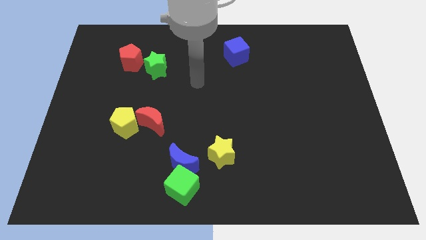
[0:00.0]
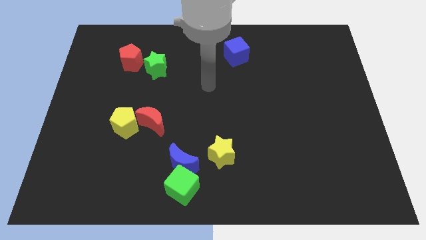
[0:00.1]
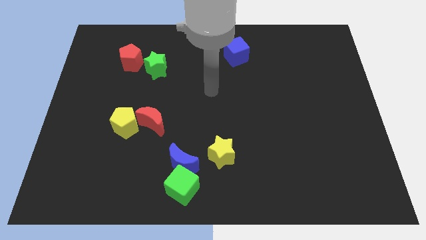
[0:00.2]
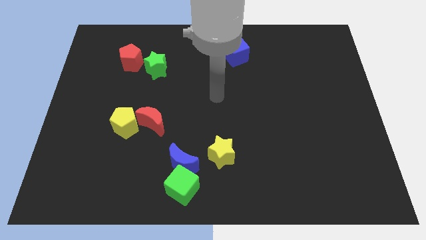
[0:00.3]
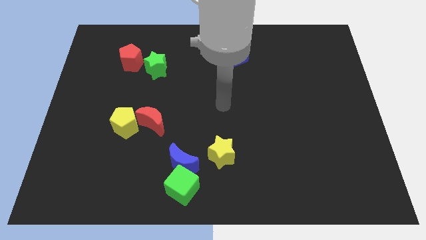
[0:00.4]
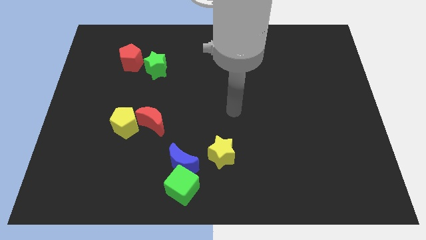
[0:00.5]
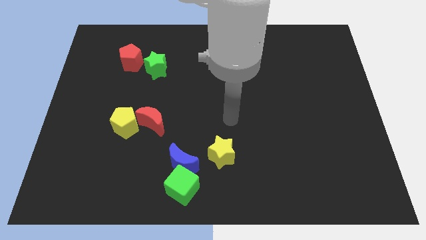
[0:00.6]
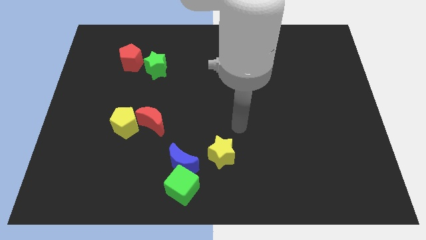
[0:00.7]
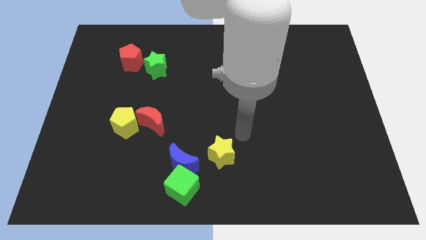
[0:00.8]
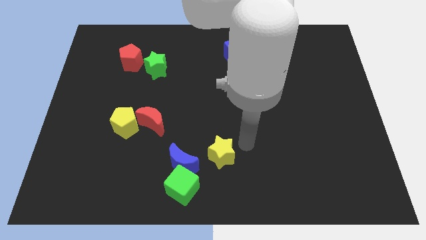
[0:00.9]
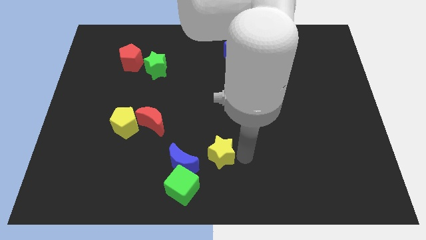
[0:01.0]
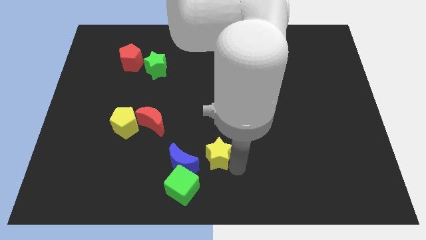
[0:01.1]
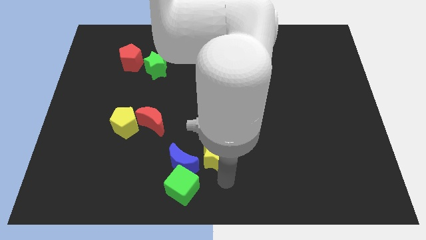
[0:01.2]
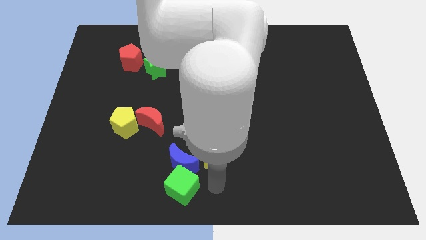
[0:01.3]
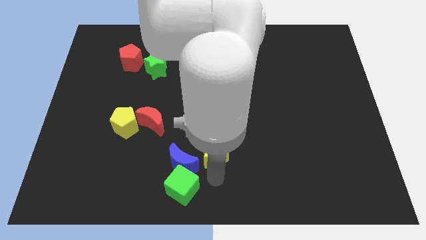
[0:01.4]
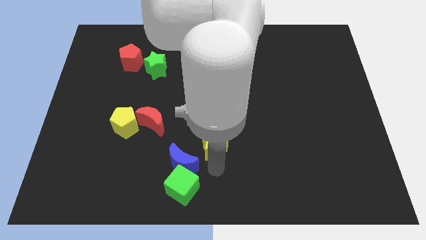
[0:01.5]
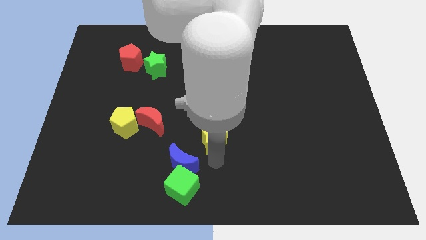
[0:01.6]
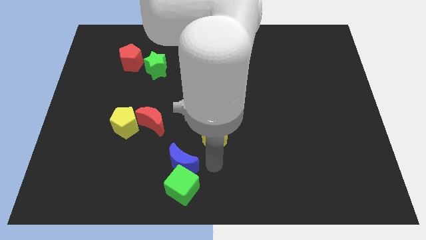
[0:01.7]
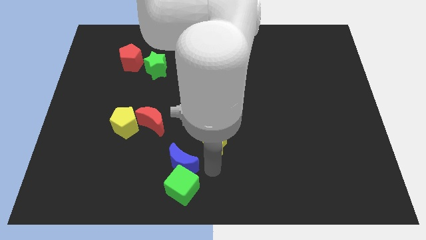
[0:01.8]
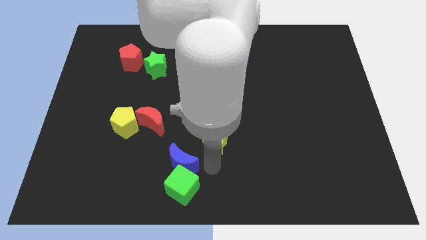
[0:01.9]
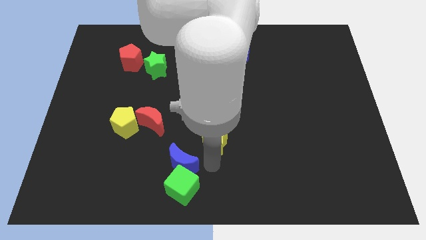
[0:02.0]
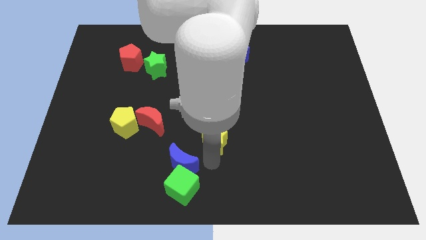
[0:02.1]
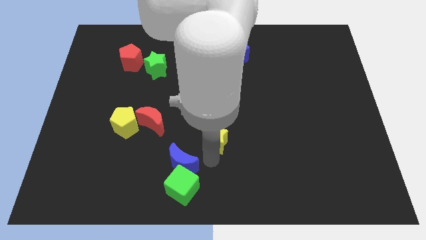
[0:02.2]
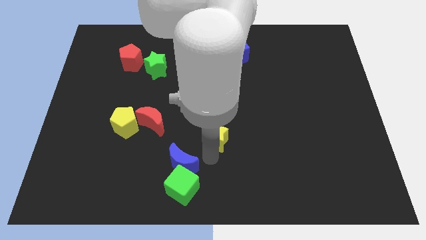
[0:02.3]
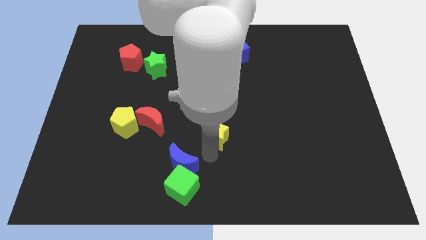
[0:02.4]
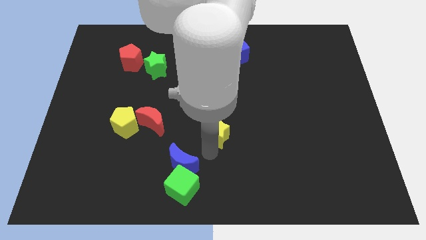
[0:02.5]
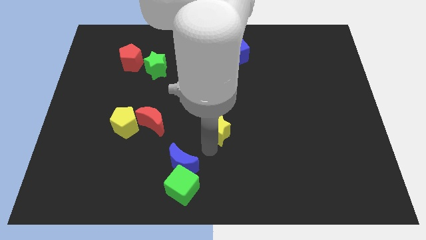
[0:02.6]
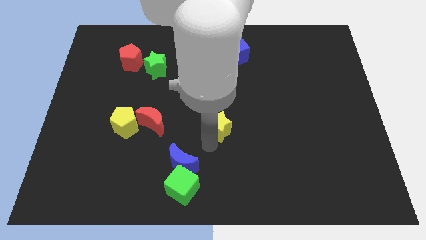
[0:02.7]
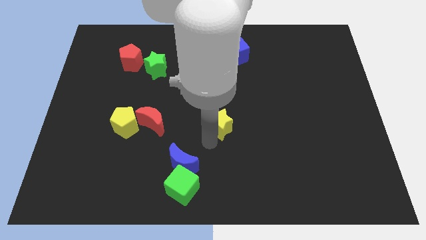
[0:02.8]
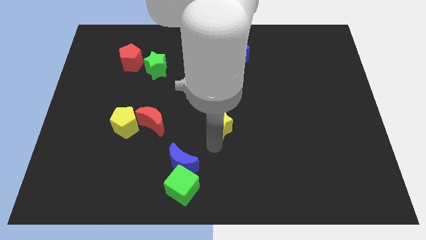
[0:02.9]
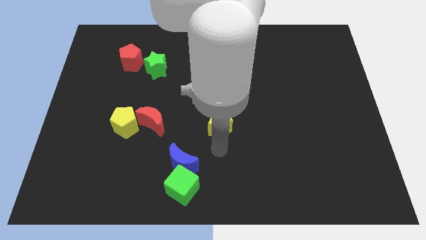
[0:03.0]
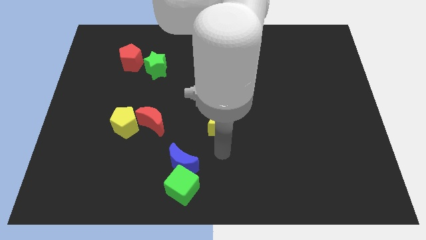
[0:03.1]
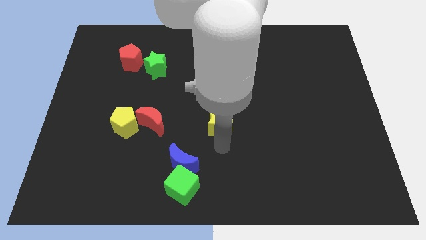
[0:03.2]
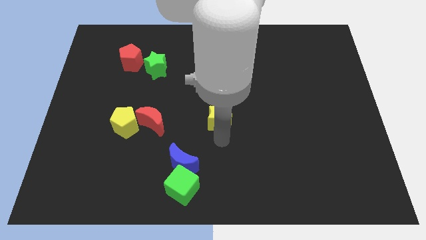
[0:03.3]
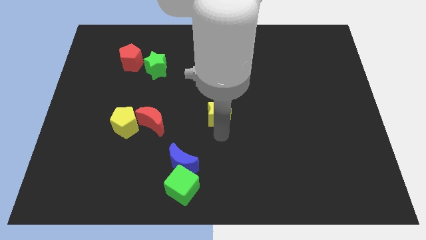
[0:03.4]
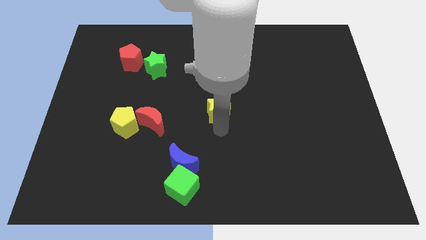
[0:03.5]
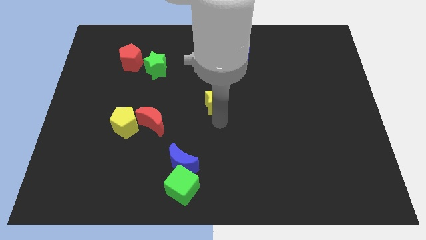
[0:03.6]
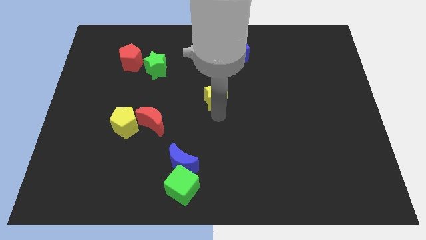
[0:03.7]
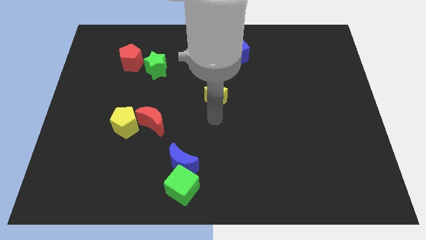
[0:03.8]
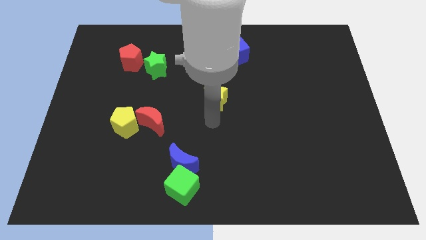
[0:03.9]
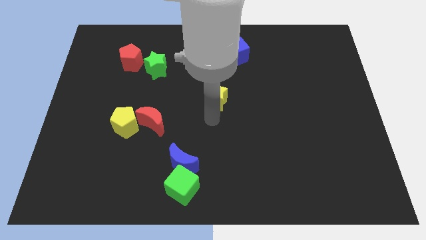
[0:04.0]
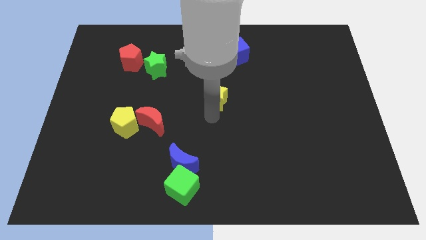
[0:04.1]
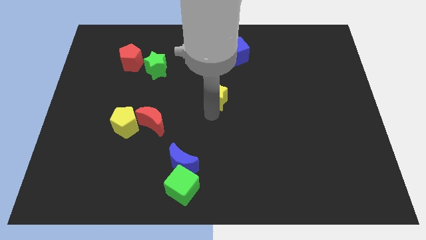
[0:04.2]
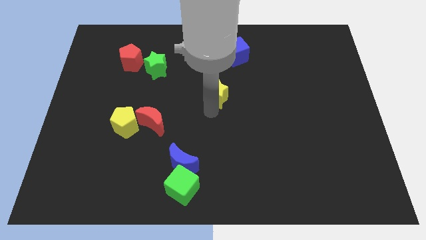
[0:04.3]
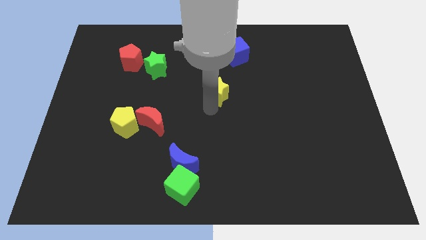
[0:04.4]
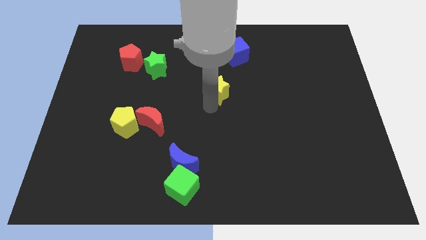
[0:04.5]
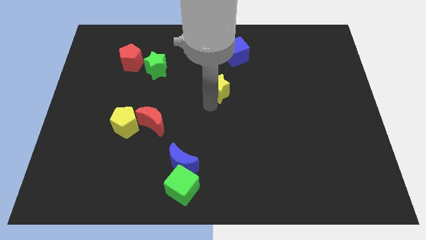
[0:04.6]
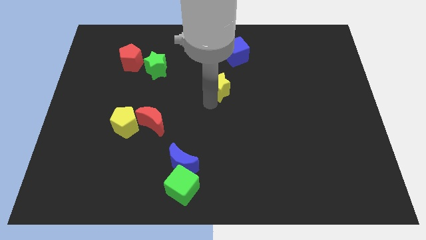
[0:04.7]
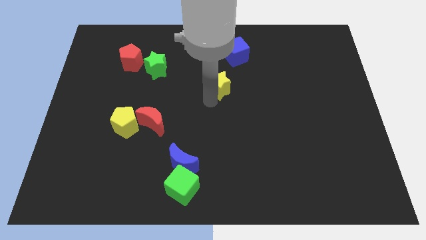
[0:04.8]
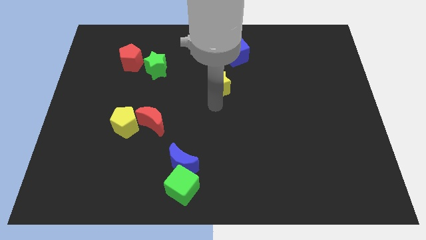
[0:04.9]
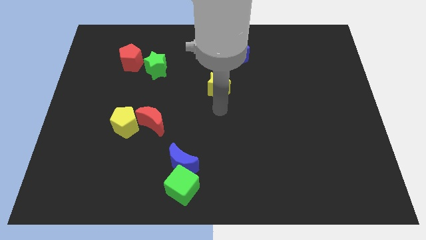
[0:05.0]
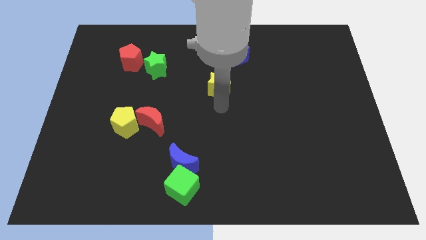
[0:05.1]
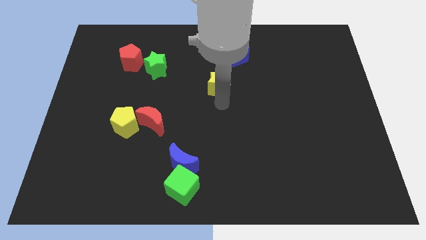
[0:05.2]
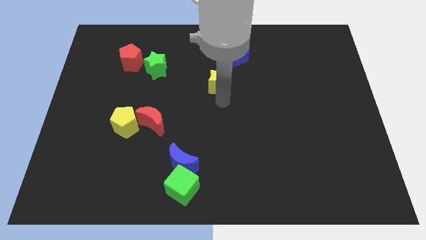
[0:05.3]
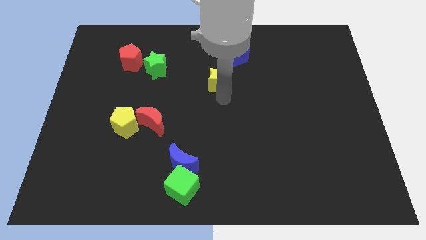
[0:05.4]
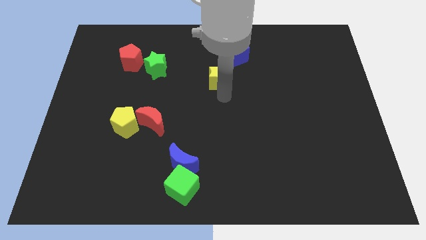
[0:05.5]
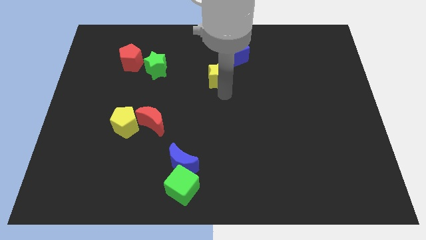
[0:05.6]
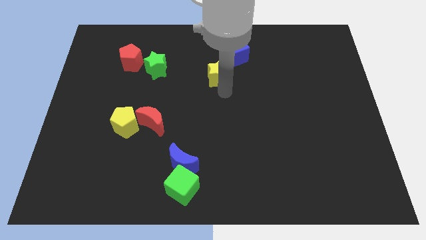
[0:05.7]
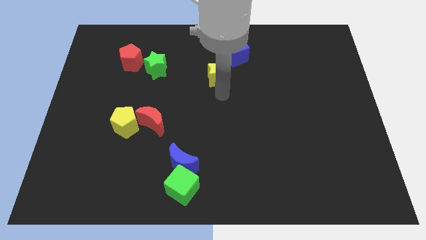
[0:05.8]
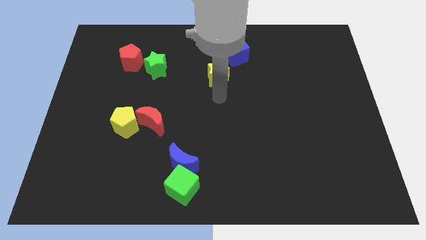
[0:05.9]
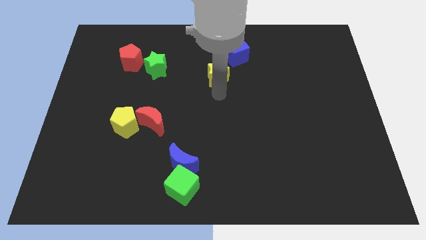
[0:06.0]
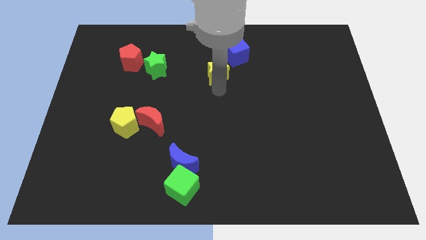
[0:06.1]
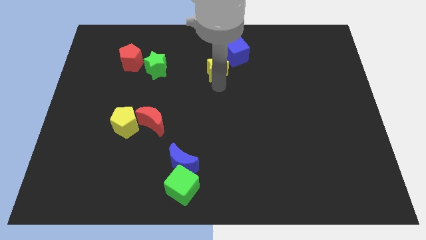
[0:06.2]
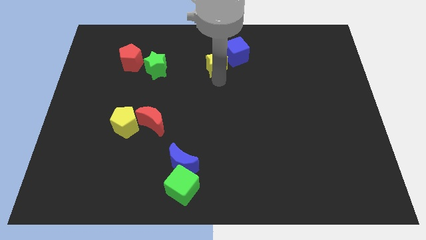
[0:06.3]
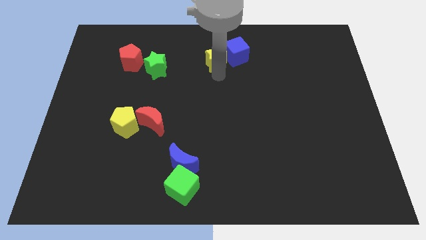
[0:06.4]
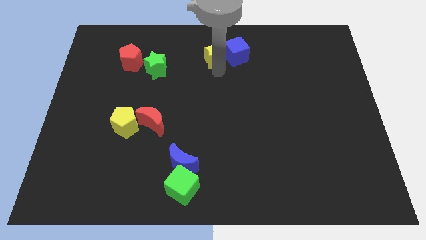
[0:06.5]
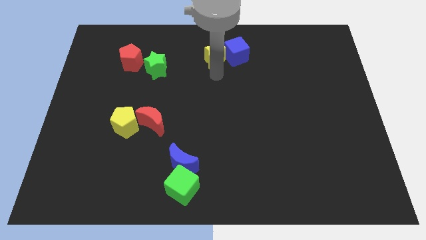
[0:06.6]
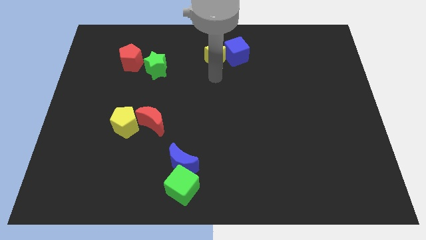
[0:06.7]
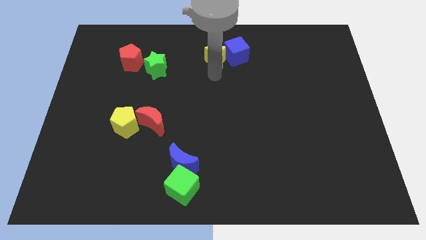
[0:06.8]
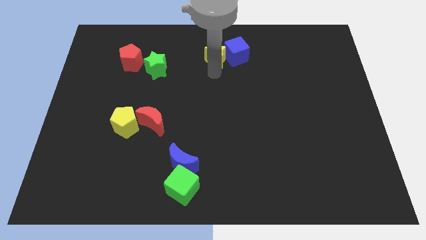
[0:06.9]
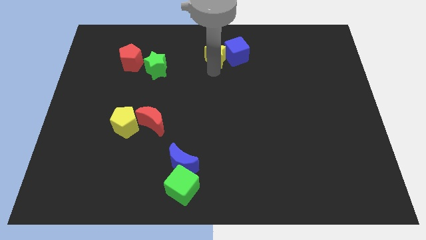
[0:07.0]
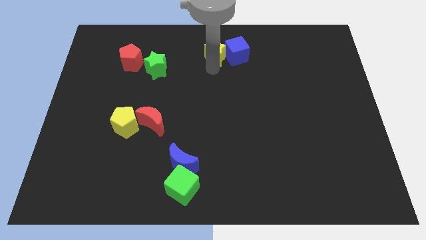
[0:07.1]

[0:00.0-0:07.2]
move the yellow star to the top

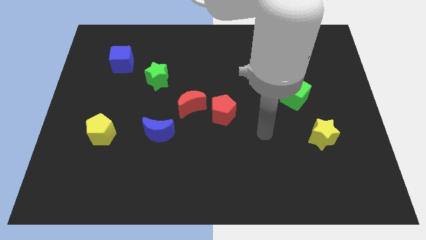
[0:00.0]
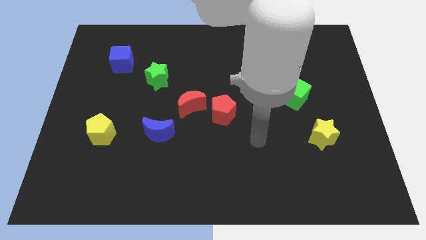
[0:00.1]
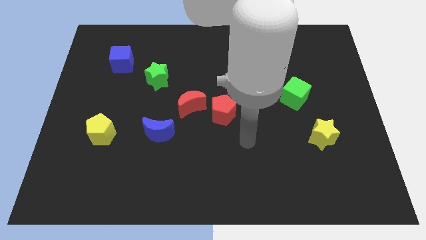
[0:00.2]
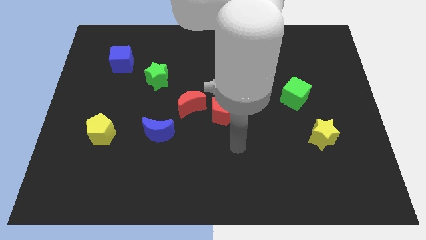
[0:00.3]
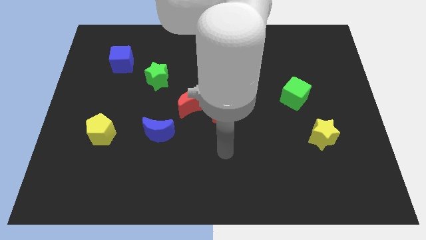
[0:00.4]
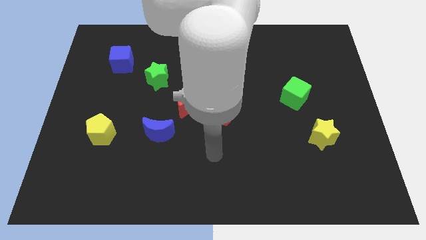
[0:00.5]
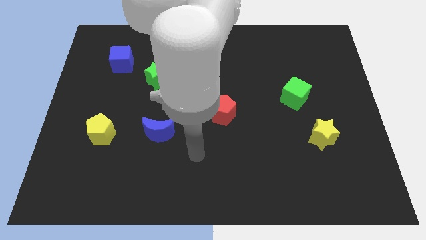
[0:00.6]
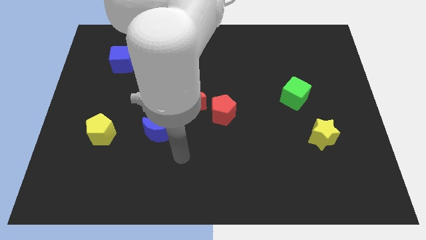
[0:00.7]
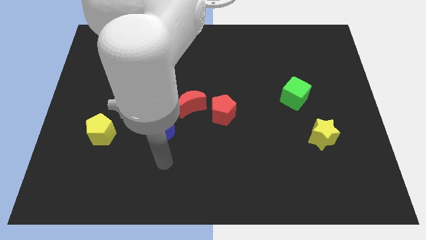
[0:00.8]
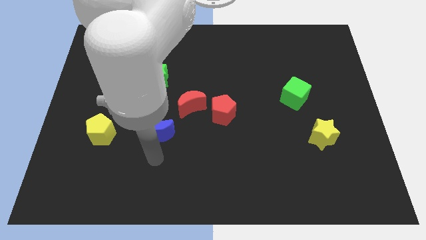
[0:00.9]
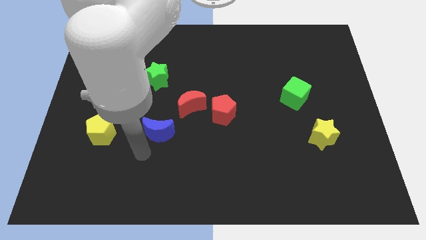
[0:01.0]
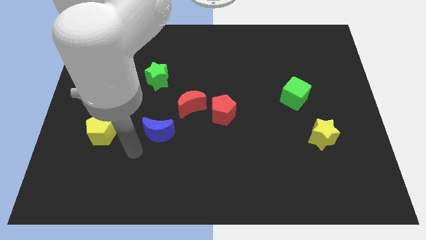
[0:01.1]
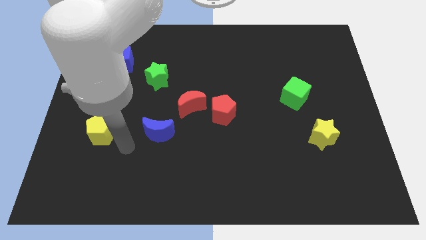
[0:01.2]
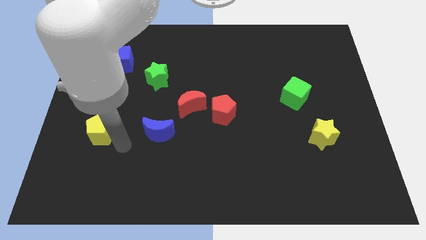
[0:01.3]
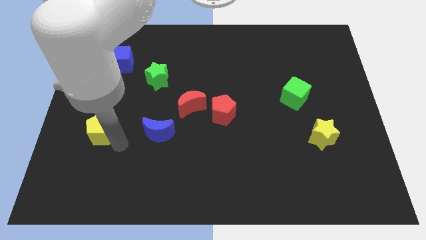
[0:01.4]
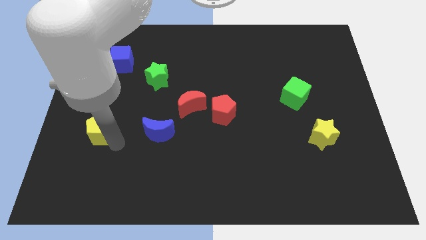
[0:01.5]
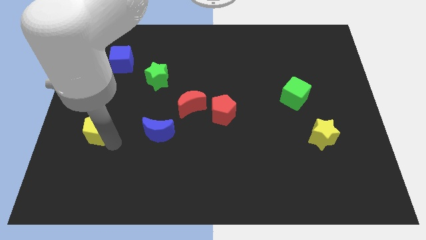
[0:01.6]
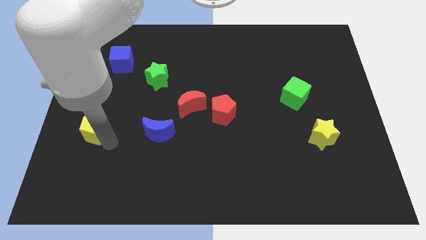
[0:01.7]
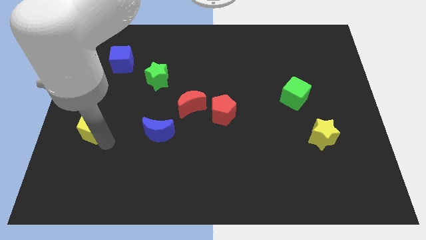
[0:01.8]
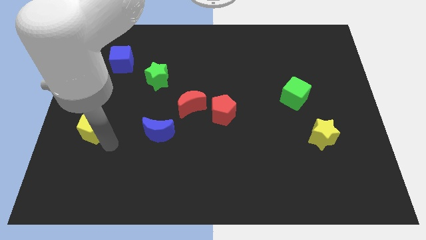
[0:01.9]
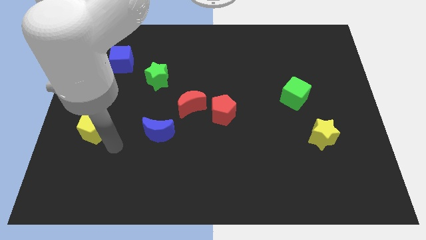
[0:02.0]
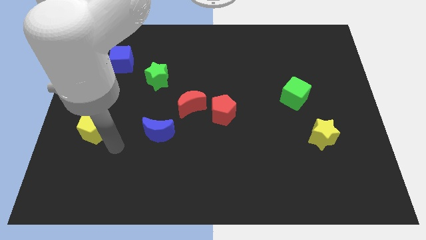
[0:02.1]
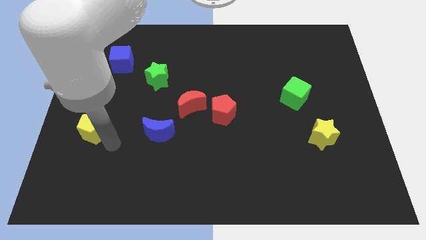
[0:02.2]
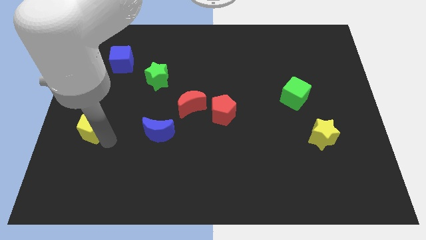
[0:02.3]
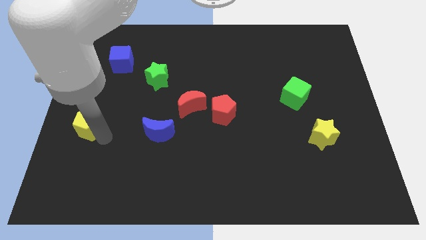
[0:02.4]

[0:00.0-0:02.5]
put the yellow pentagon to the left side
